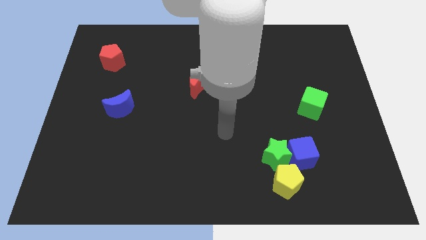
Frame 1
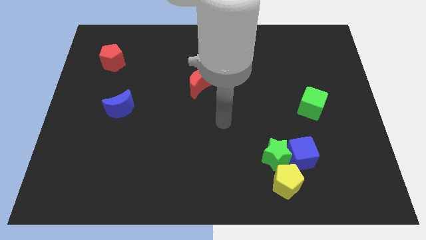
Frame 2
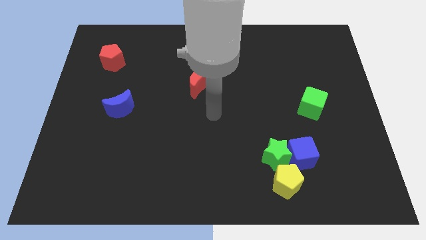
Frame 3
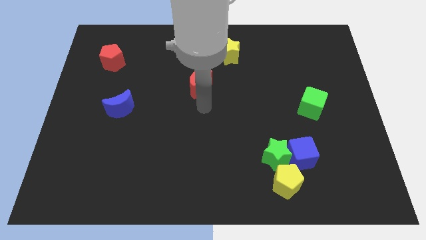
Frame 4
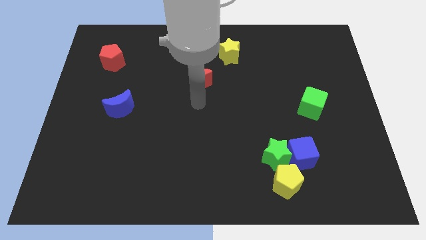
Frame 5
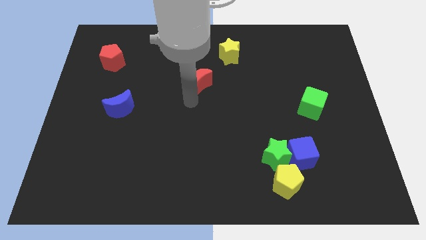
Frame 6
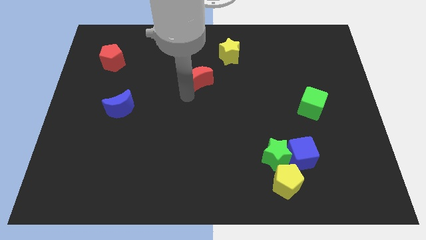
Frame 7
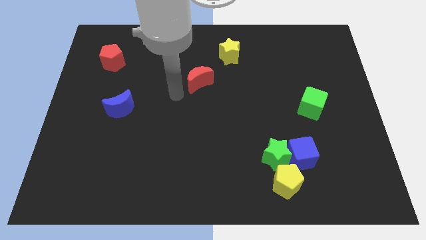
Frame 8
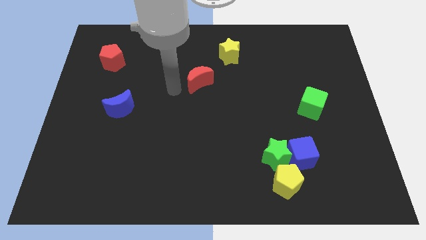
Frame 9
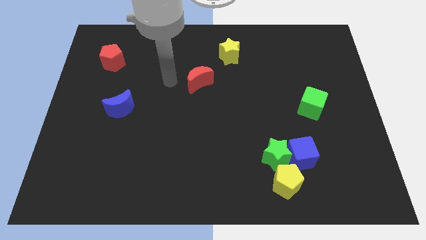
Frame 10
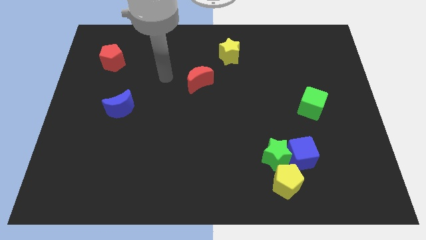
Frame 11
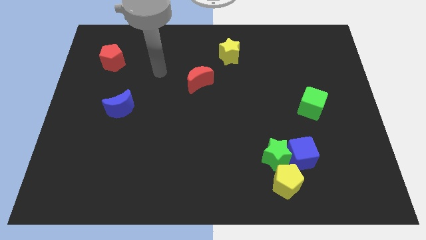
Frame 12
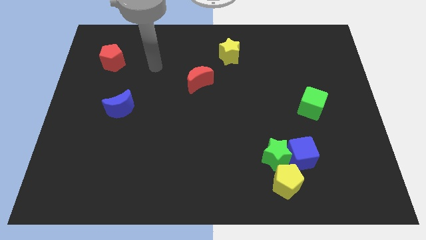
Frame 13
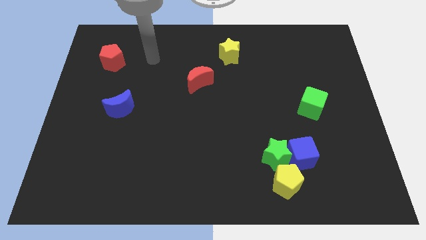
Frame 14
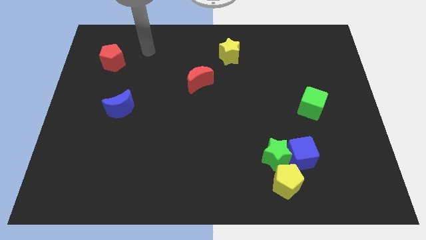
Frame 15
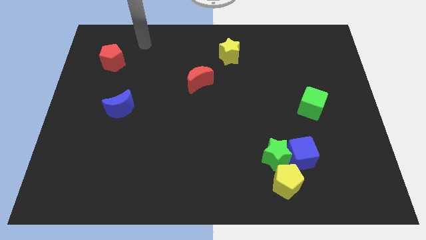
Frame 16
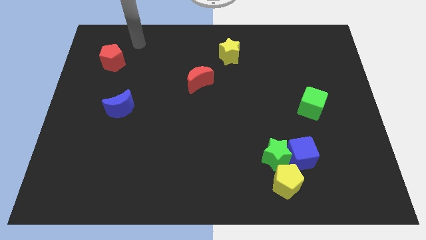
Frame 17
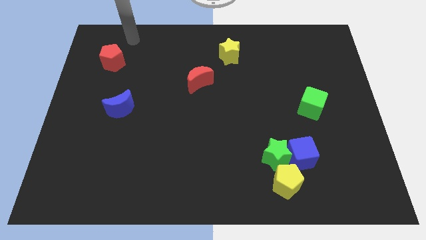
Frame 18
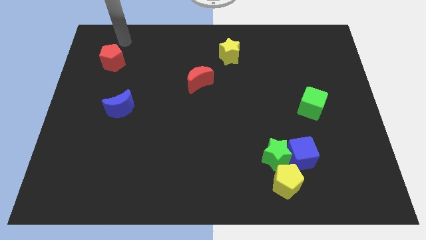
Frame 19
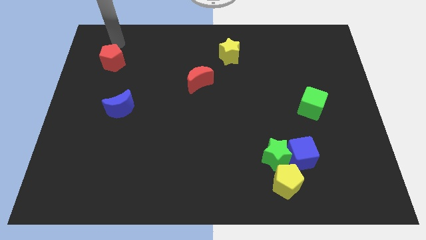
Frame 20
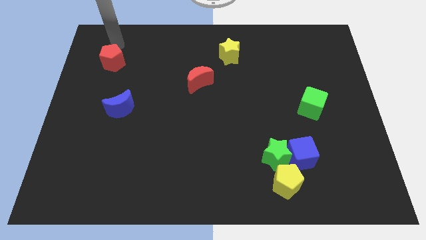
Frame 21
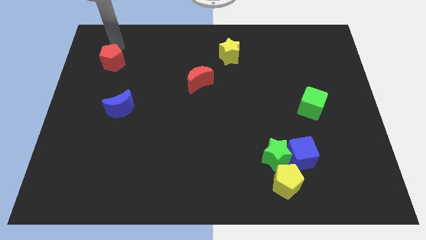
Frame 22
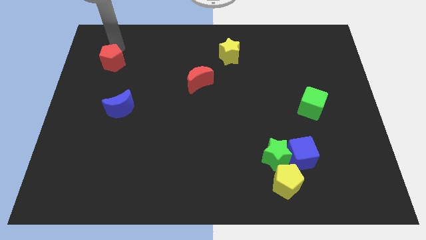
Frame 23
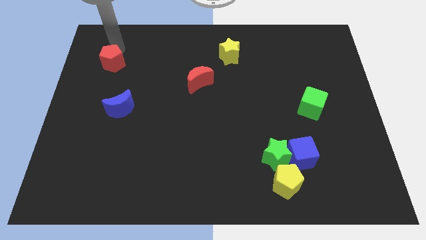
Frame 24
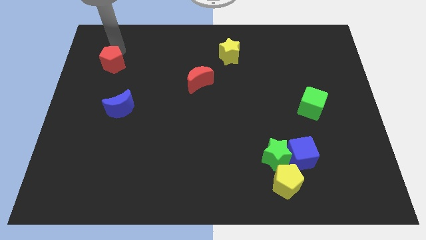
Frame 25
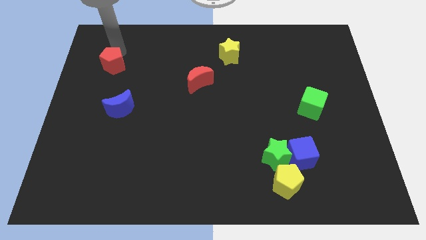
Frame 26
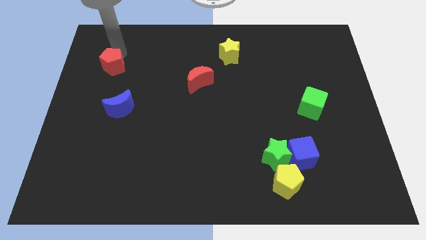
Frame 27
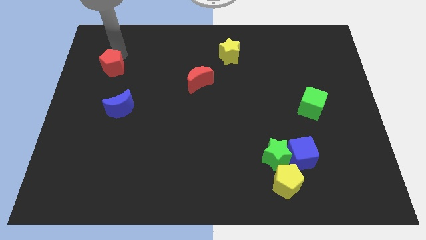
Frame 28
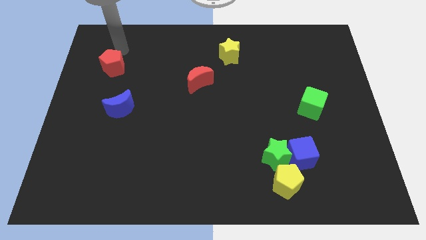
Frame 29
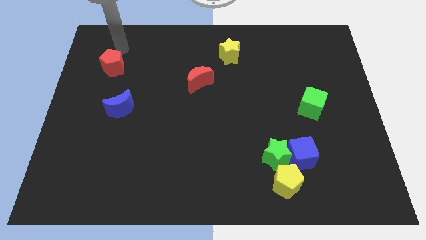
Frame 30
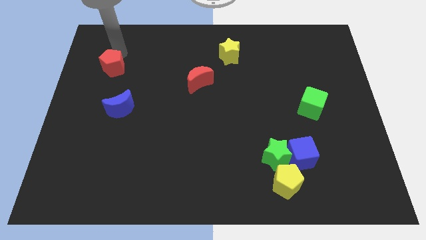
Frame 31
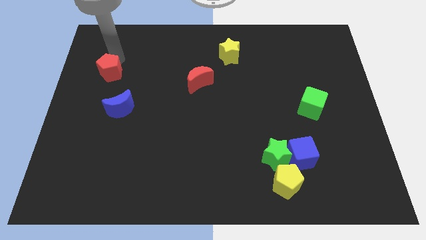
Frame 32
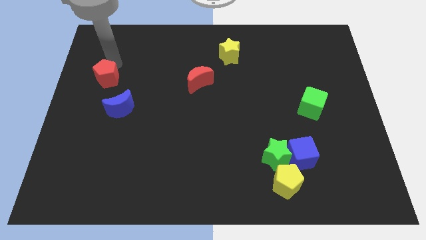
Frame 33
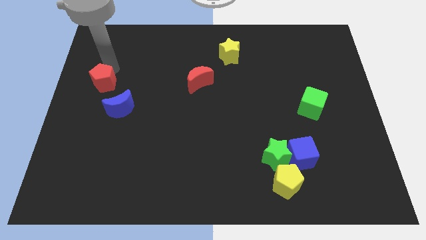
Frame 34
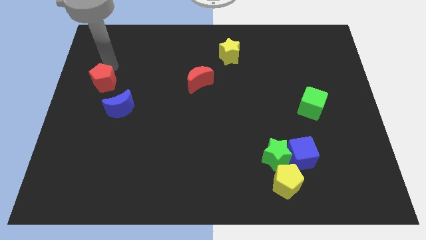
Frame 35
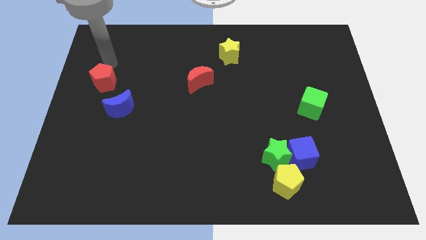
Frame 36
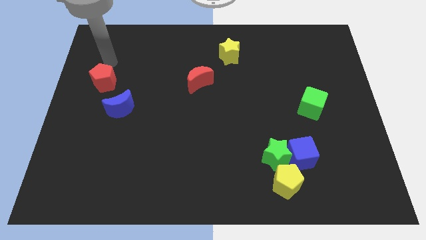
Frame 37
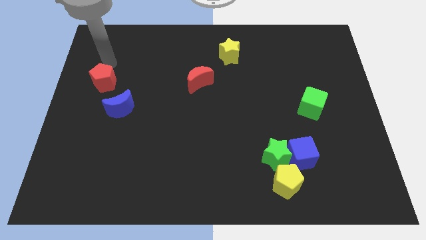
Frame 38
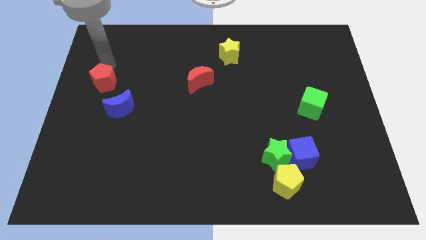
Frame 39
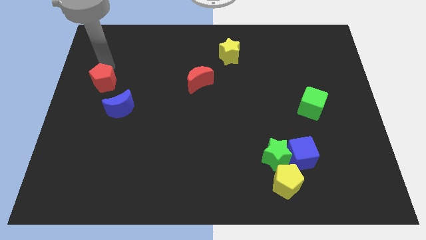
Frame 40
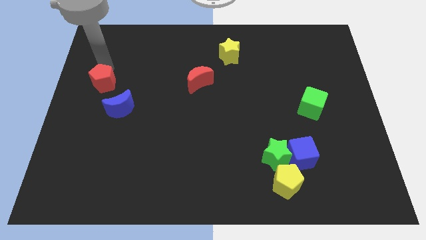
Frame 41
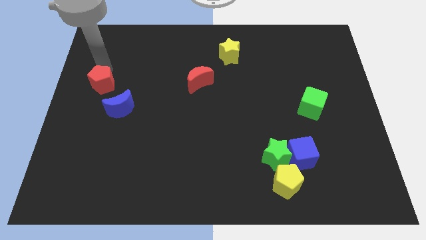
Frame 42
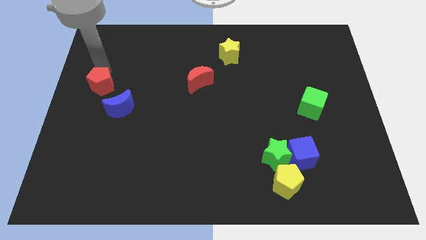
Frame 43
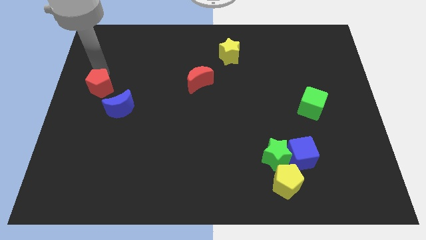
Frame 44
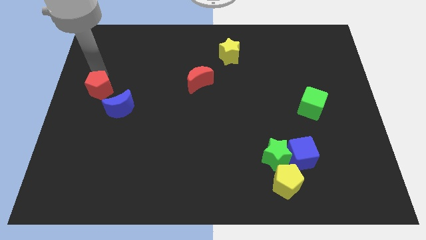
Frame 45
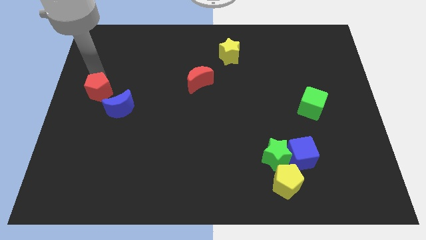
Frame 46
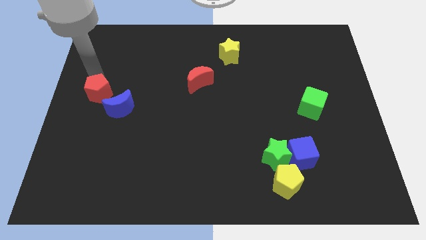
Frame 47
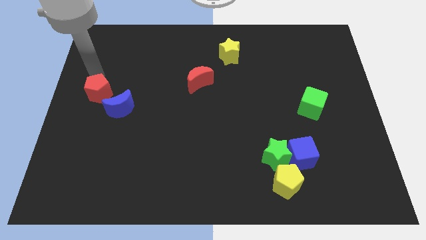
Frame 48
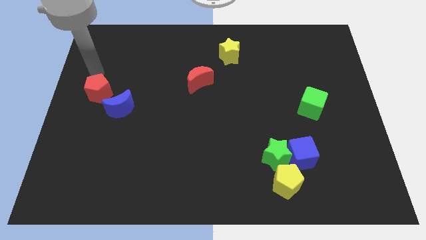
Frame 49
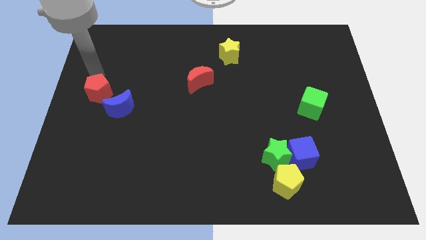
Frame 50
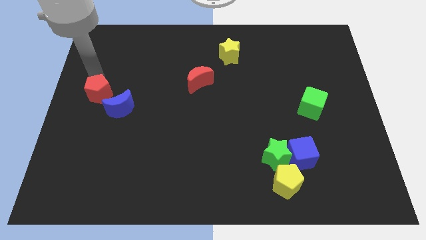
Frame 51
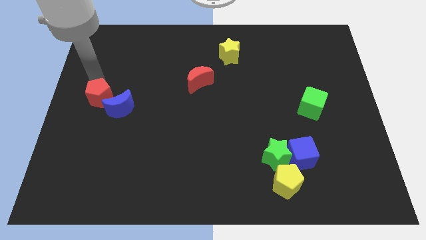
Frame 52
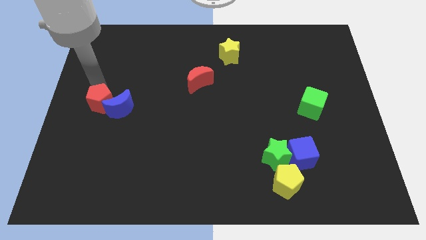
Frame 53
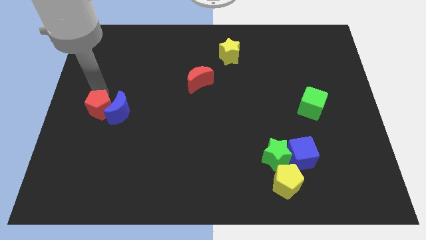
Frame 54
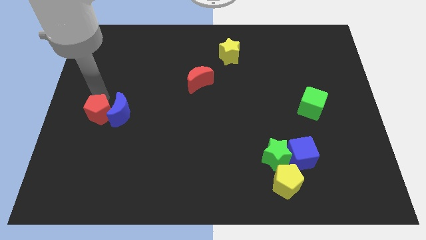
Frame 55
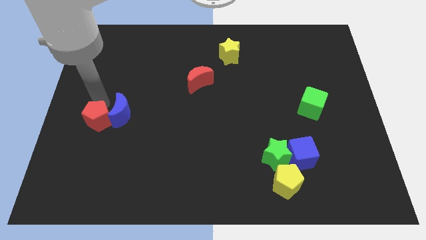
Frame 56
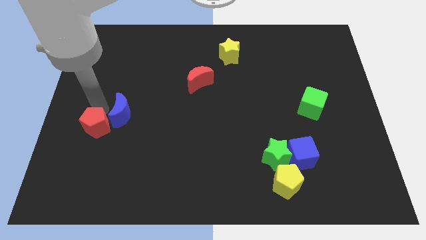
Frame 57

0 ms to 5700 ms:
slide the red pentagon downwards

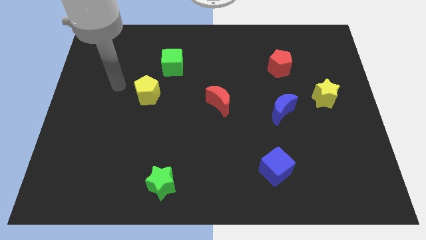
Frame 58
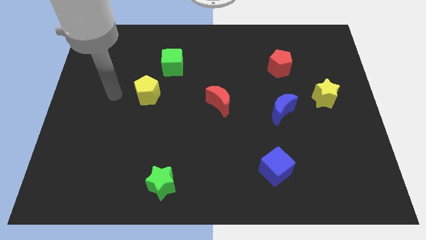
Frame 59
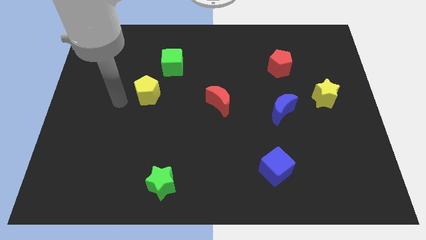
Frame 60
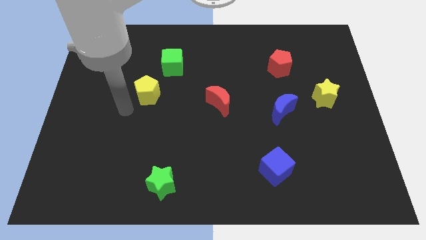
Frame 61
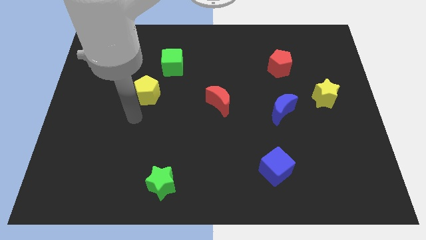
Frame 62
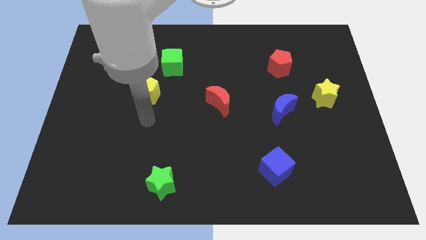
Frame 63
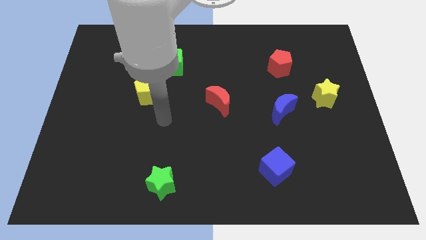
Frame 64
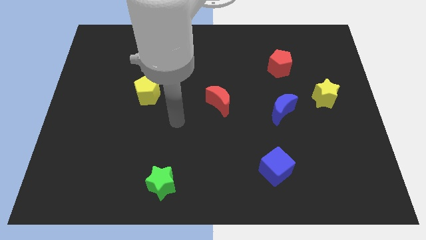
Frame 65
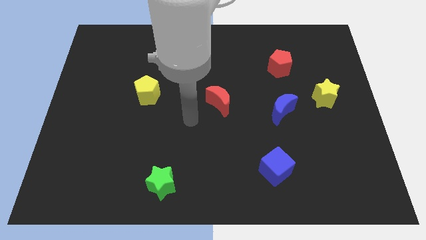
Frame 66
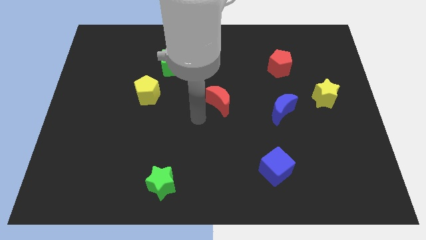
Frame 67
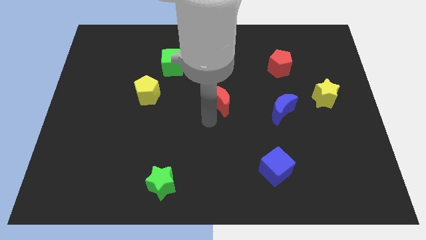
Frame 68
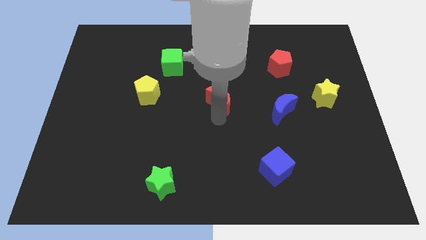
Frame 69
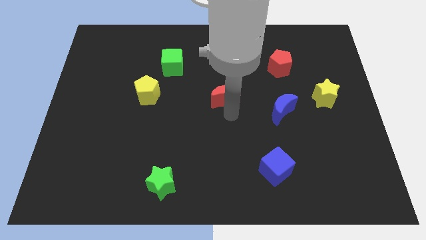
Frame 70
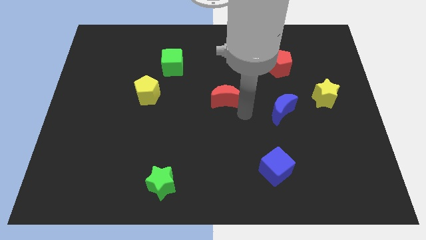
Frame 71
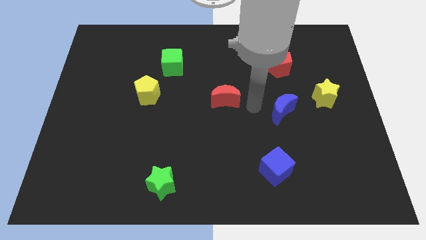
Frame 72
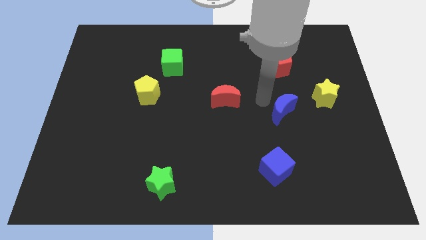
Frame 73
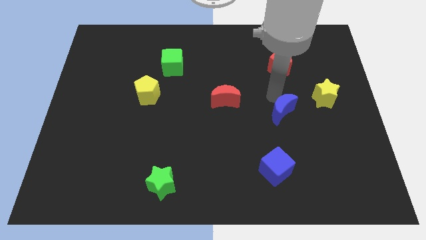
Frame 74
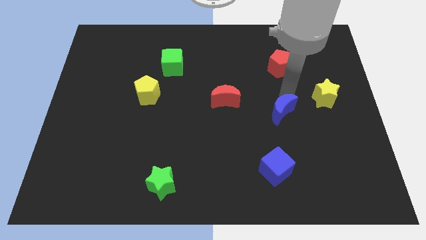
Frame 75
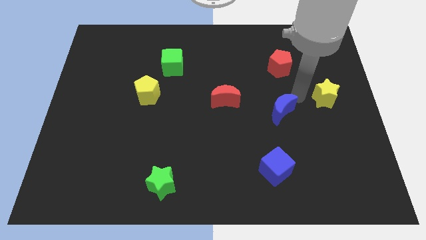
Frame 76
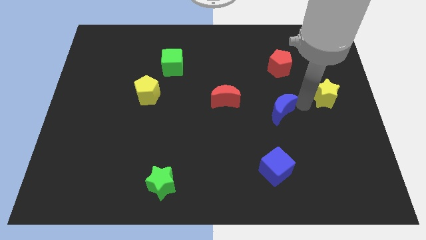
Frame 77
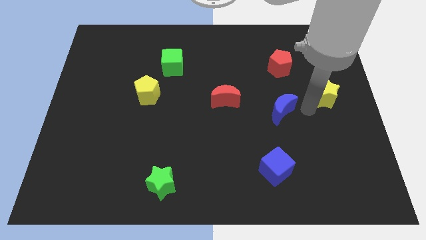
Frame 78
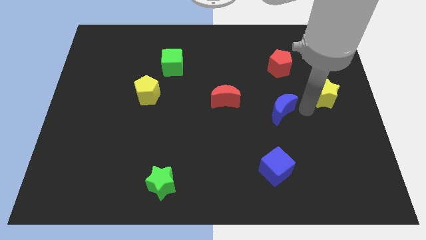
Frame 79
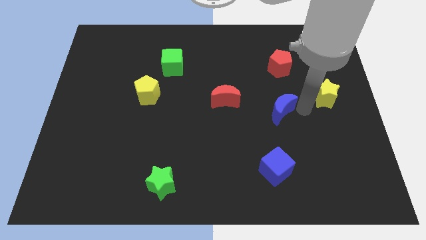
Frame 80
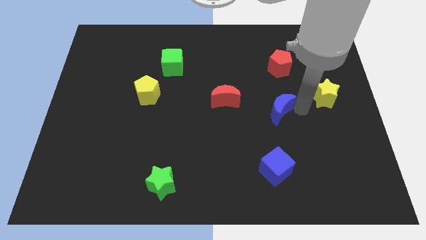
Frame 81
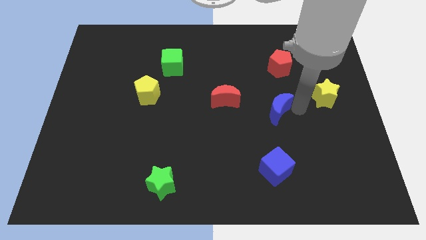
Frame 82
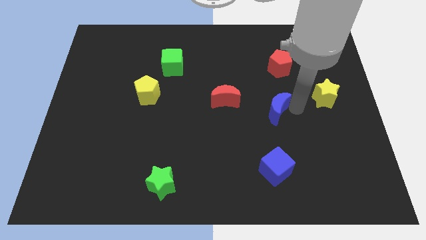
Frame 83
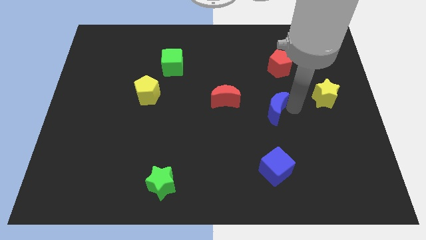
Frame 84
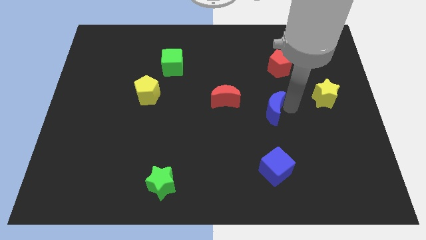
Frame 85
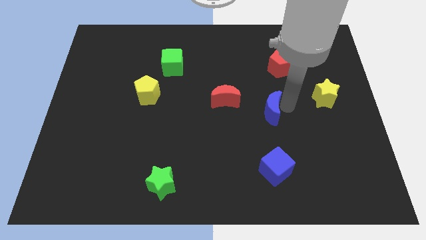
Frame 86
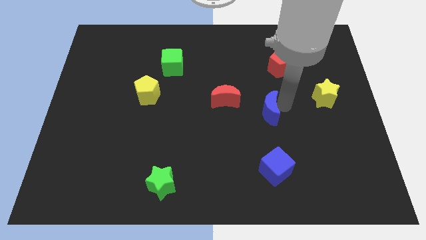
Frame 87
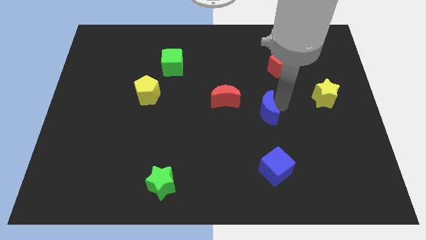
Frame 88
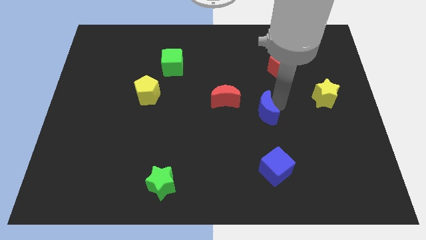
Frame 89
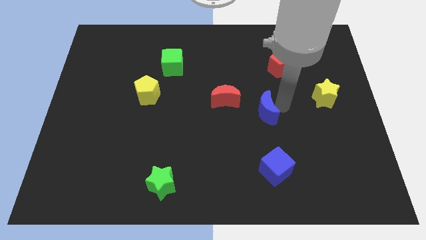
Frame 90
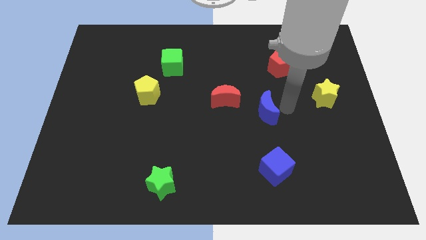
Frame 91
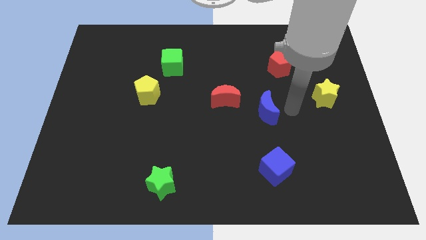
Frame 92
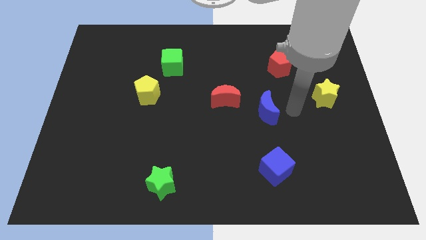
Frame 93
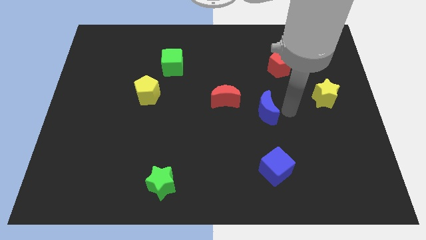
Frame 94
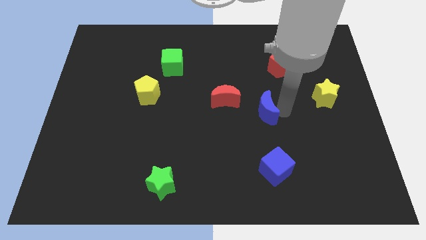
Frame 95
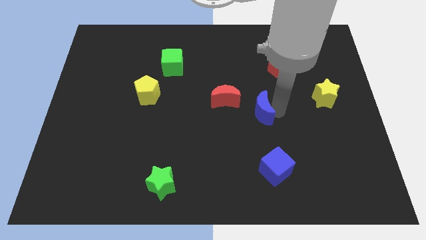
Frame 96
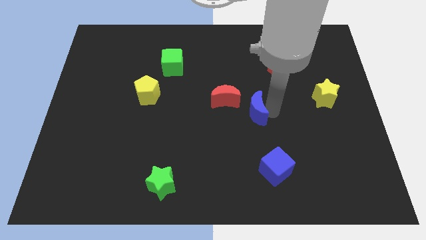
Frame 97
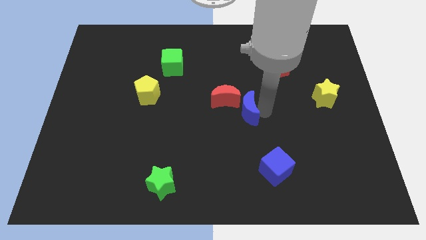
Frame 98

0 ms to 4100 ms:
slightly move the blue moon left
